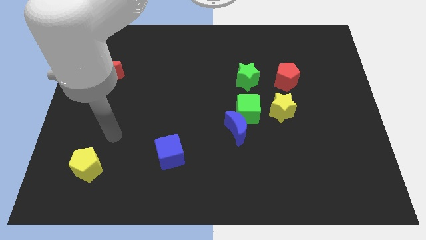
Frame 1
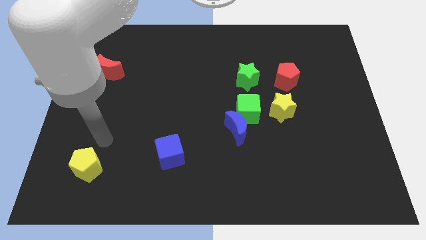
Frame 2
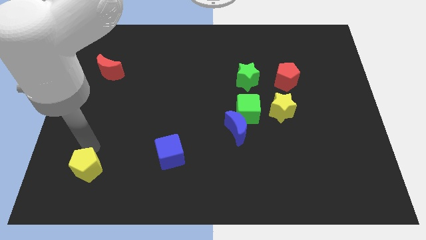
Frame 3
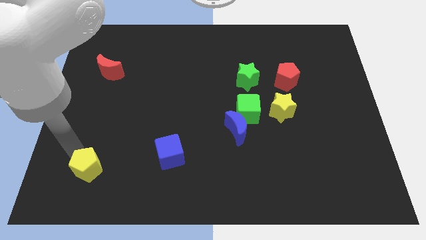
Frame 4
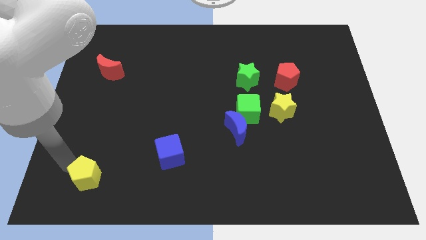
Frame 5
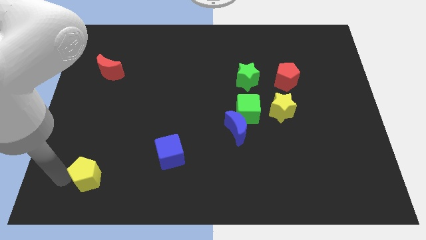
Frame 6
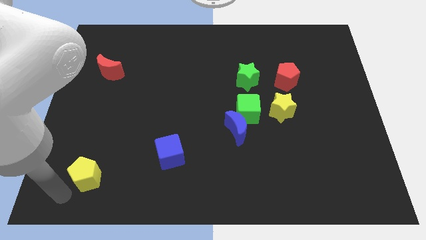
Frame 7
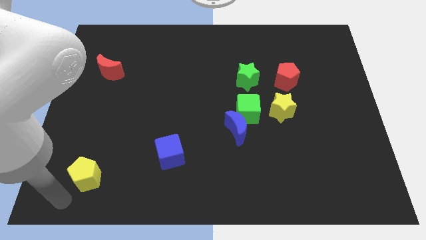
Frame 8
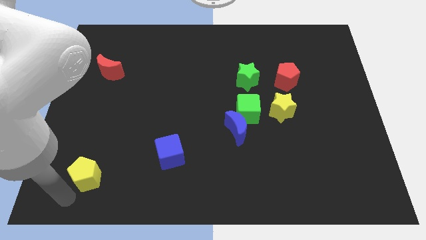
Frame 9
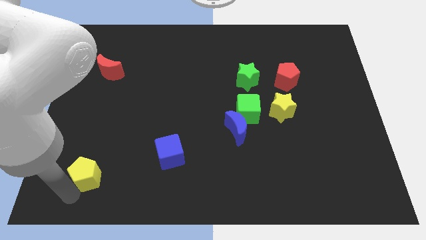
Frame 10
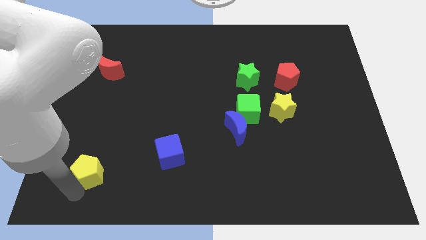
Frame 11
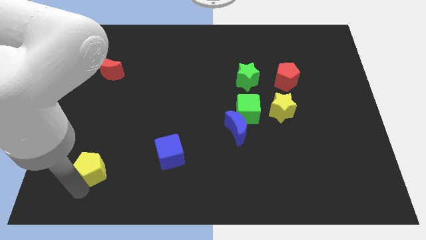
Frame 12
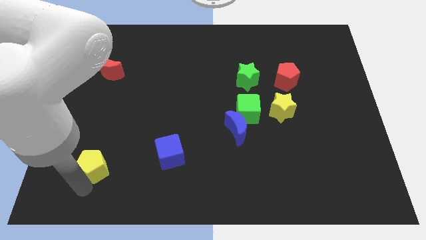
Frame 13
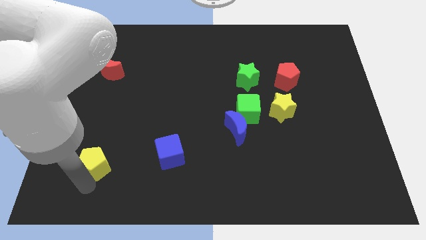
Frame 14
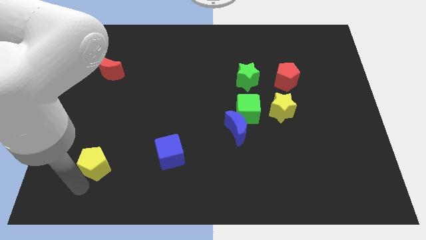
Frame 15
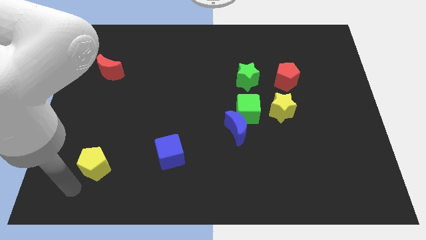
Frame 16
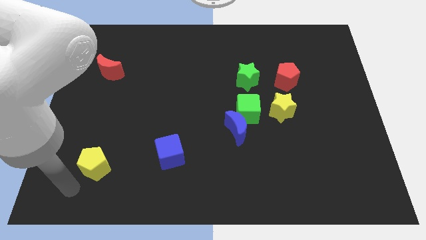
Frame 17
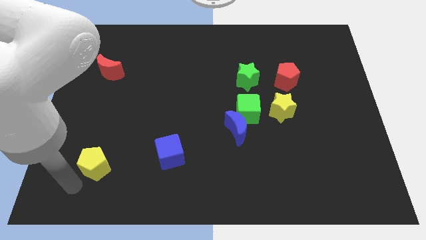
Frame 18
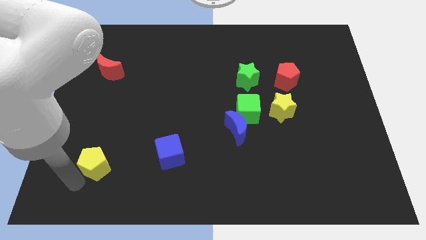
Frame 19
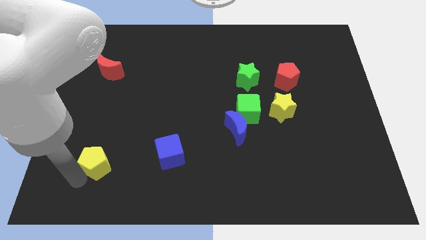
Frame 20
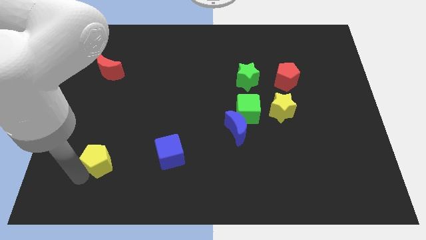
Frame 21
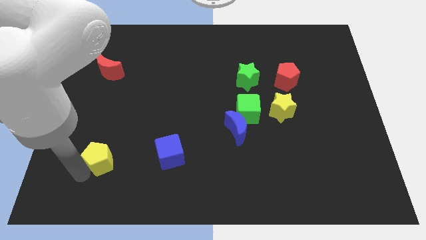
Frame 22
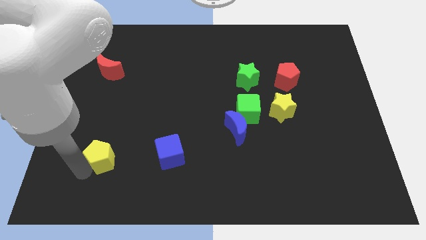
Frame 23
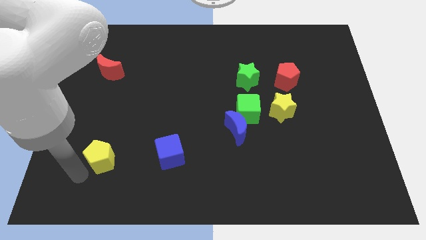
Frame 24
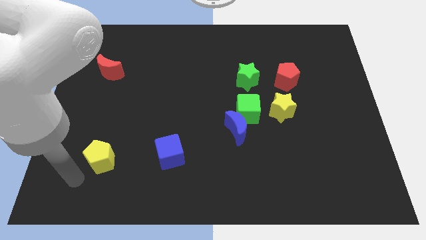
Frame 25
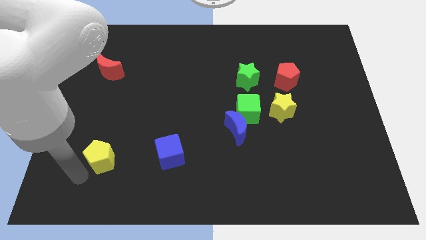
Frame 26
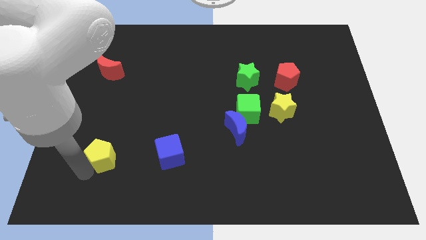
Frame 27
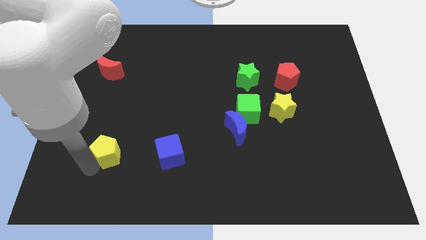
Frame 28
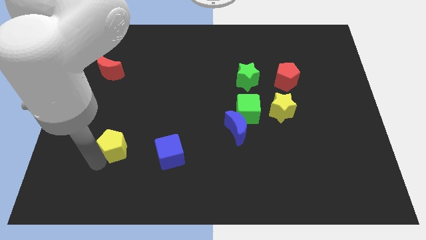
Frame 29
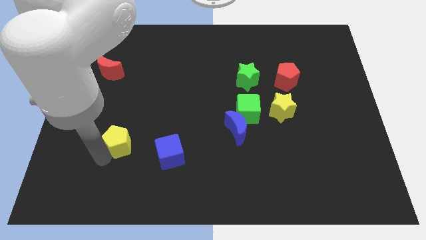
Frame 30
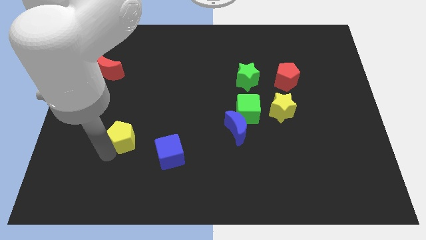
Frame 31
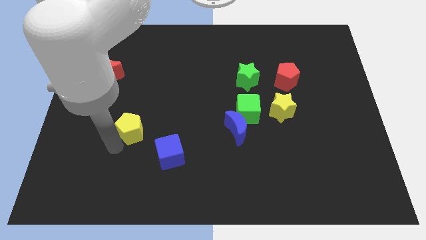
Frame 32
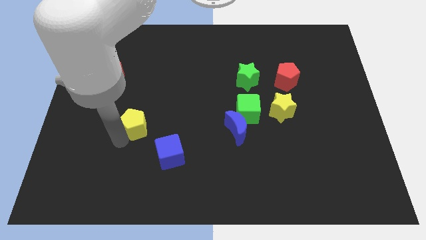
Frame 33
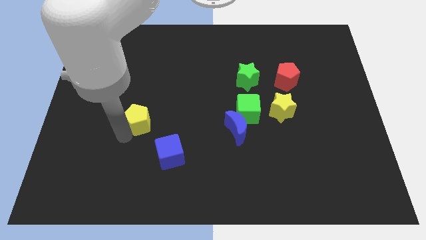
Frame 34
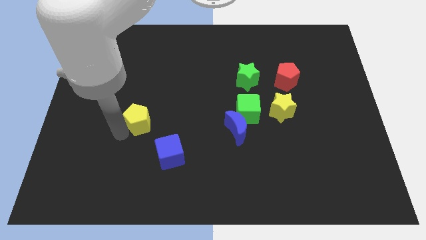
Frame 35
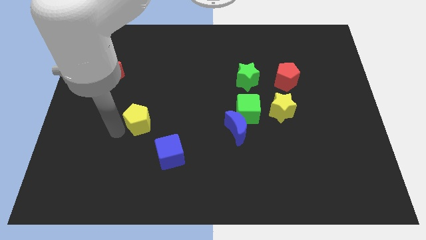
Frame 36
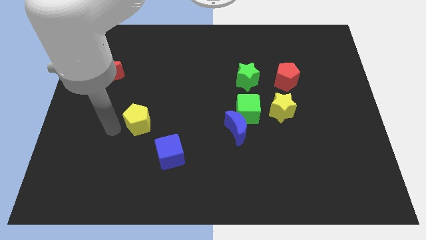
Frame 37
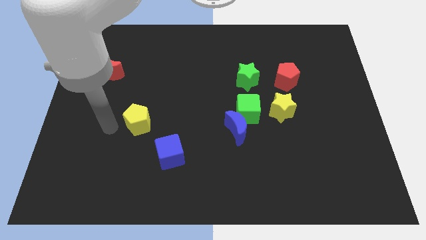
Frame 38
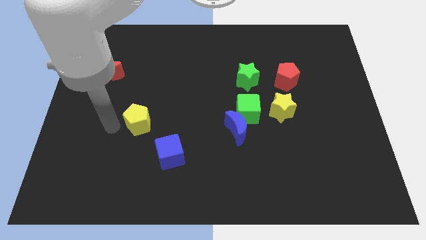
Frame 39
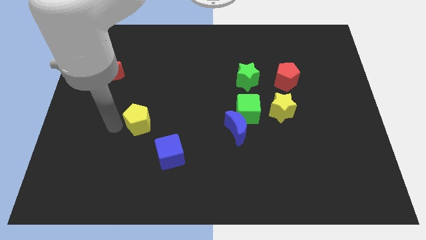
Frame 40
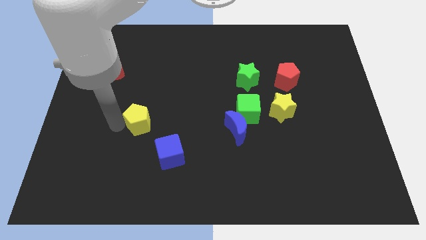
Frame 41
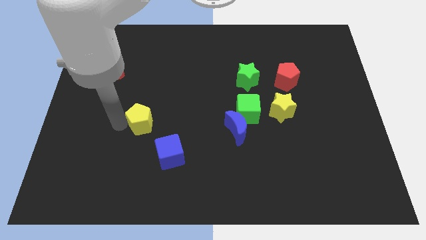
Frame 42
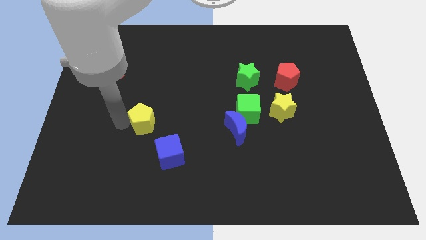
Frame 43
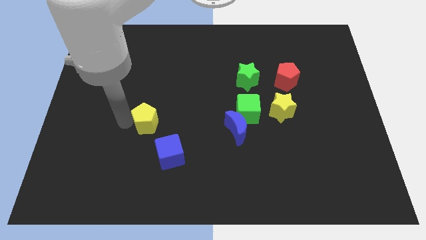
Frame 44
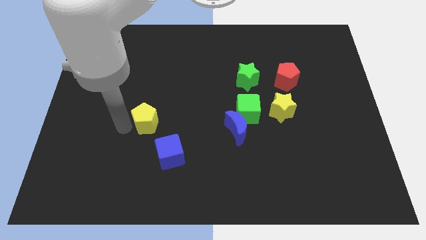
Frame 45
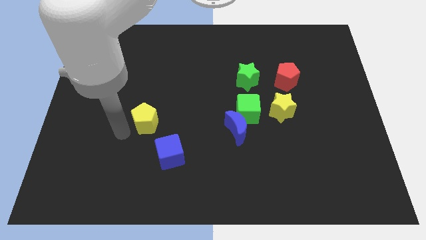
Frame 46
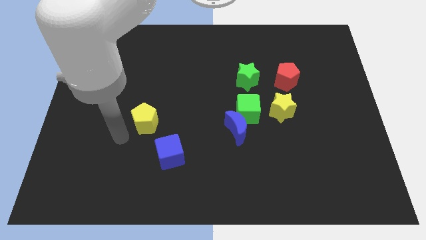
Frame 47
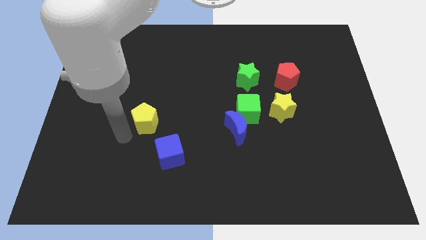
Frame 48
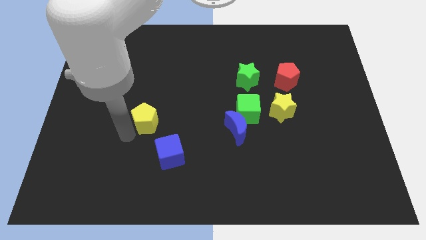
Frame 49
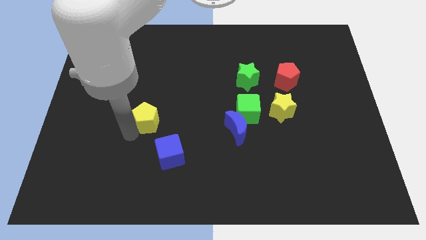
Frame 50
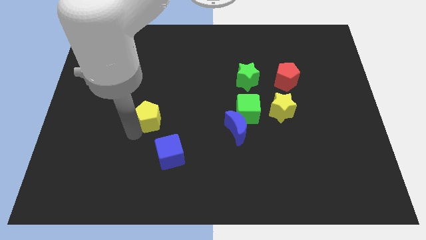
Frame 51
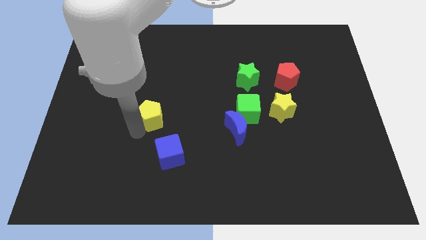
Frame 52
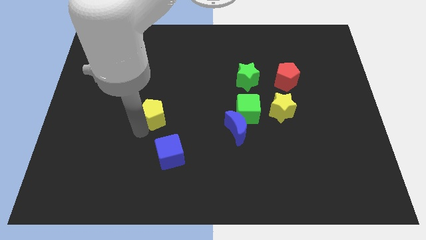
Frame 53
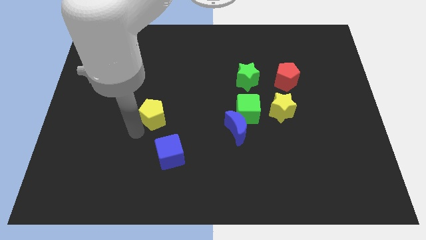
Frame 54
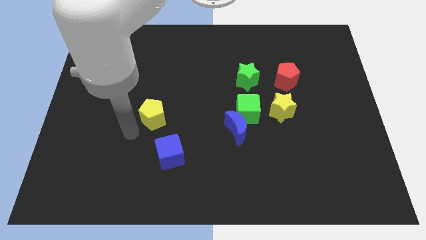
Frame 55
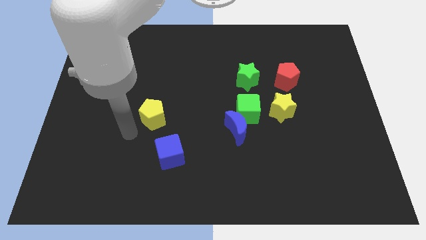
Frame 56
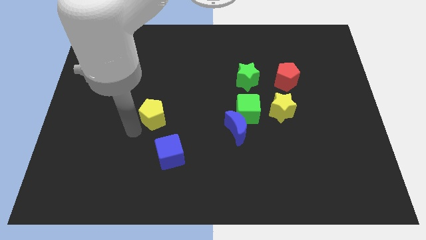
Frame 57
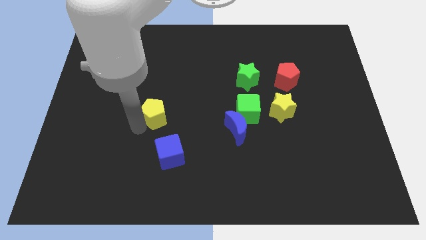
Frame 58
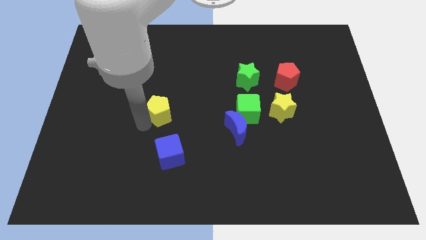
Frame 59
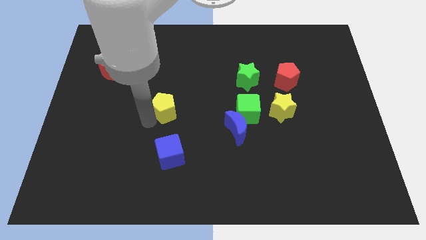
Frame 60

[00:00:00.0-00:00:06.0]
push the yellow pentagon upwards and right

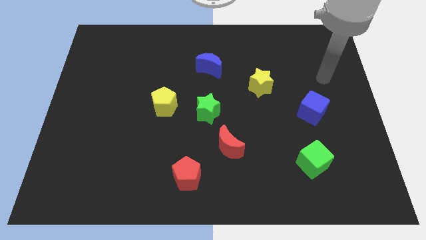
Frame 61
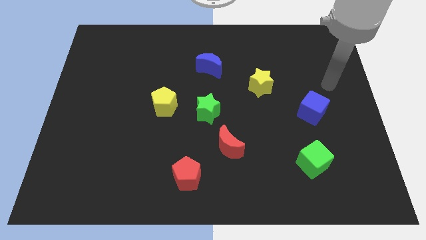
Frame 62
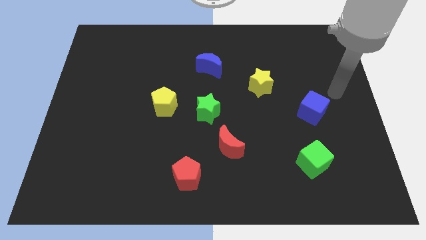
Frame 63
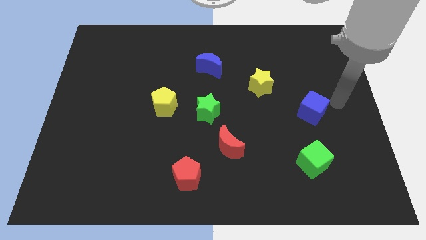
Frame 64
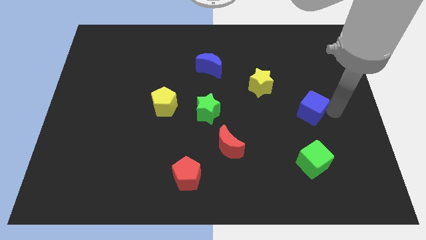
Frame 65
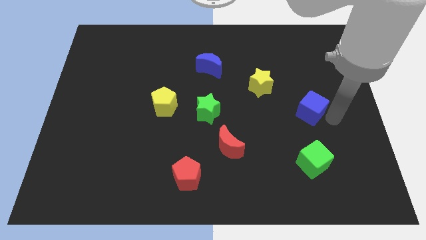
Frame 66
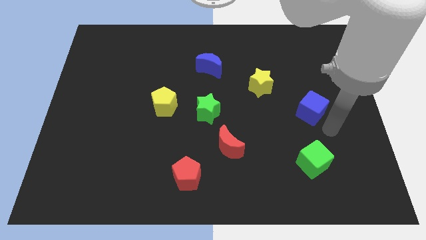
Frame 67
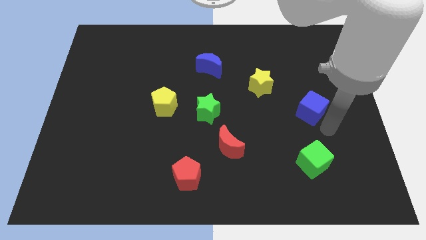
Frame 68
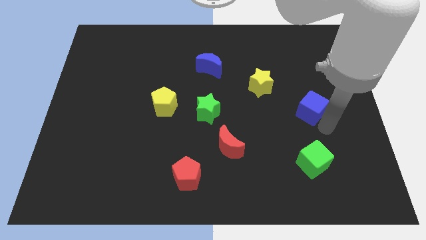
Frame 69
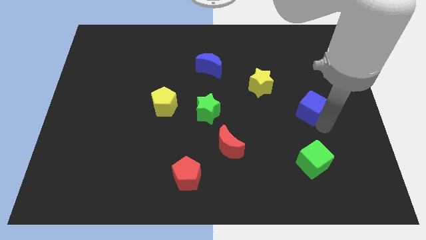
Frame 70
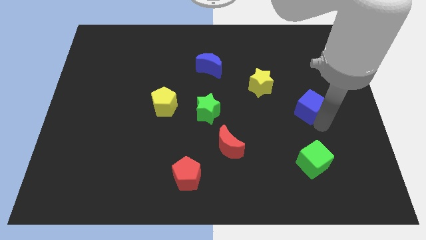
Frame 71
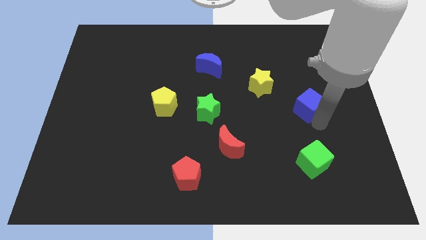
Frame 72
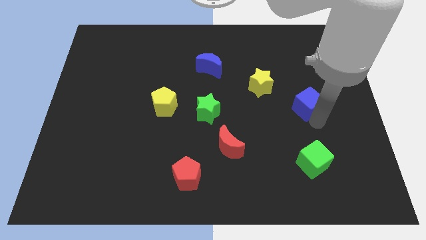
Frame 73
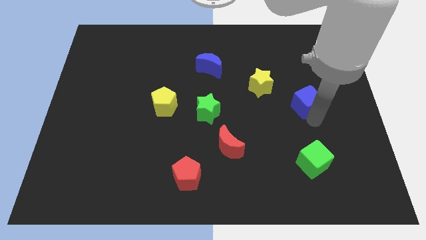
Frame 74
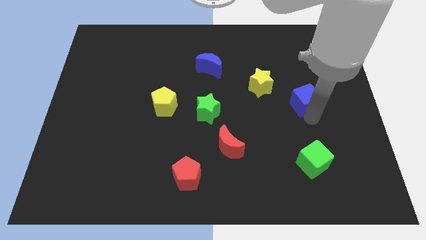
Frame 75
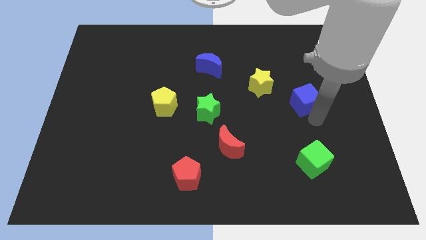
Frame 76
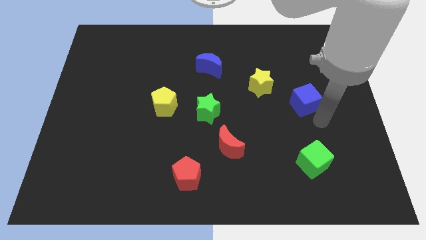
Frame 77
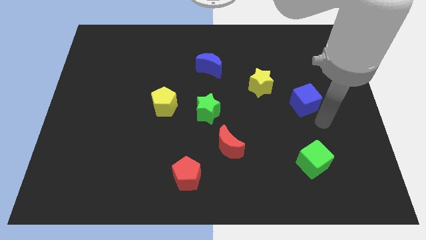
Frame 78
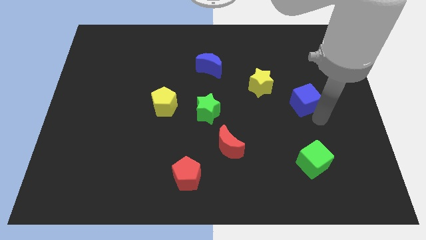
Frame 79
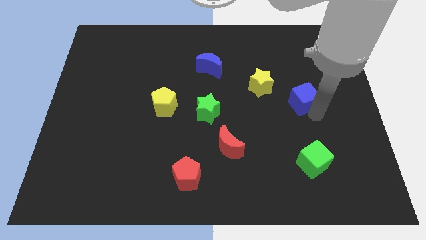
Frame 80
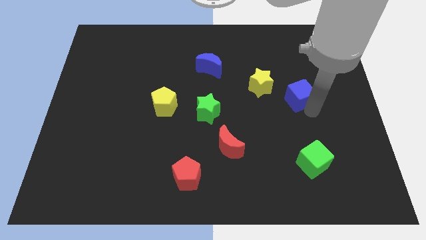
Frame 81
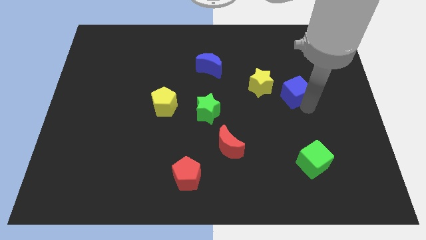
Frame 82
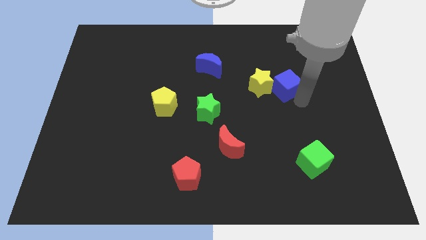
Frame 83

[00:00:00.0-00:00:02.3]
slightly move the blue cube upwards and then left
